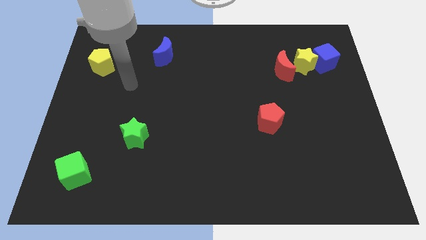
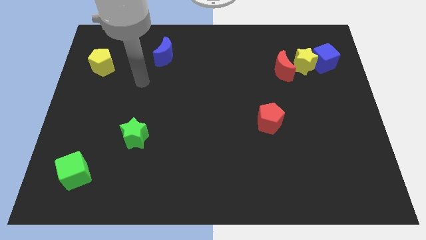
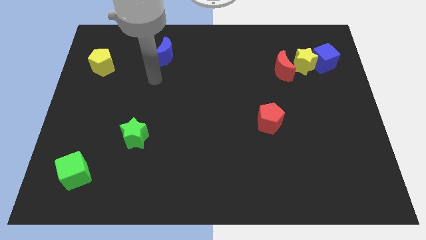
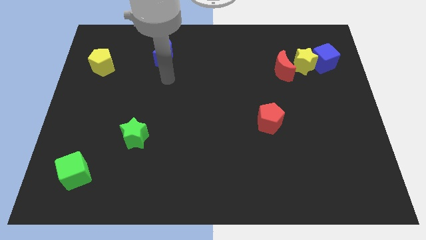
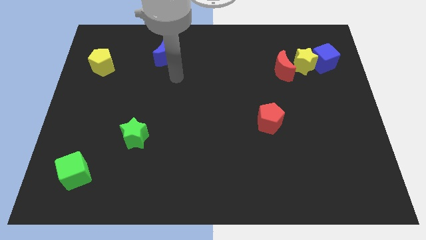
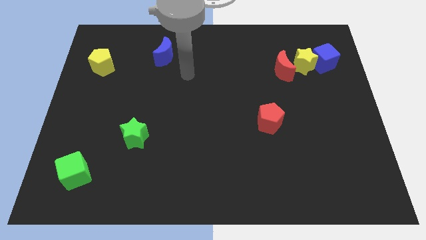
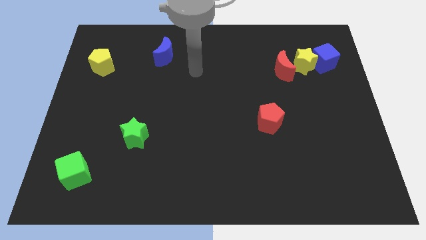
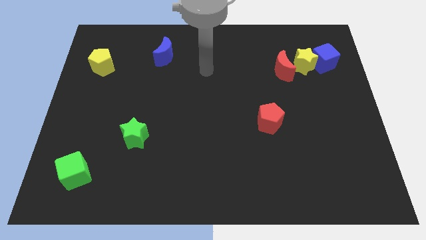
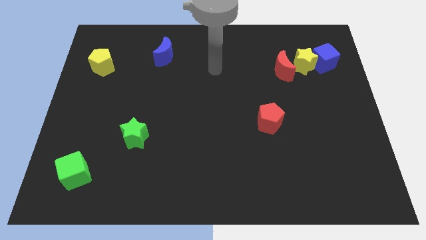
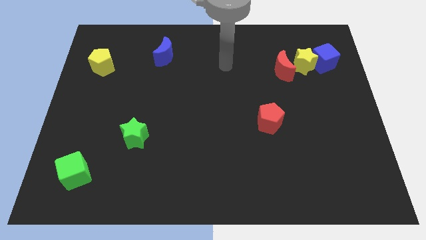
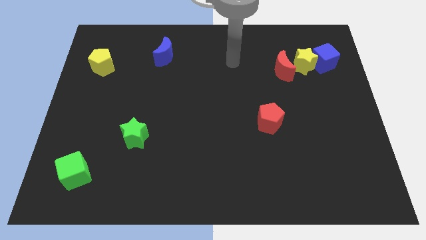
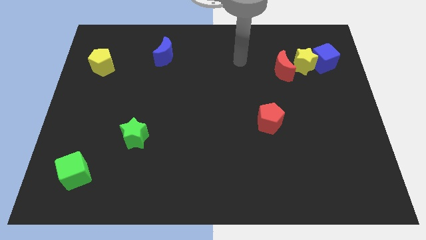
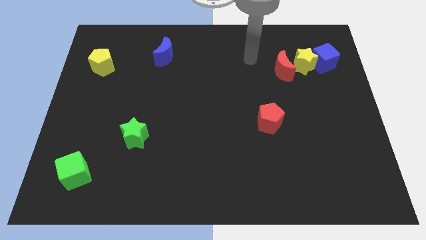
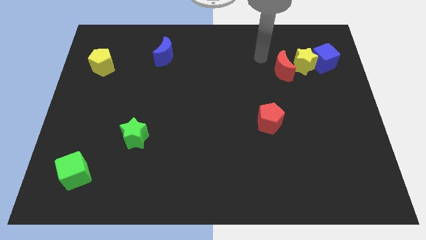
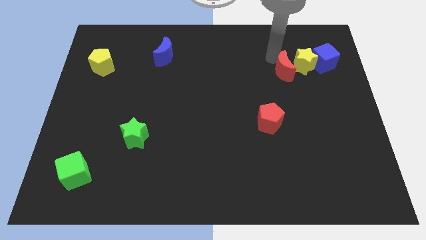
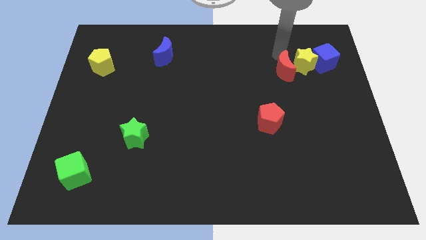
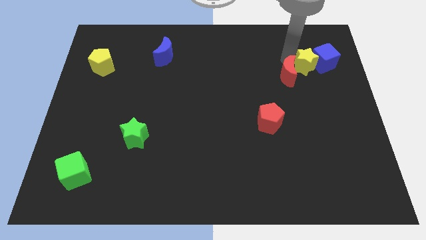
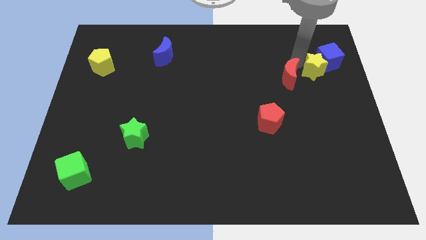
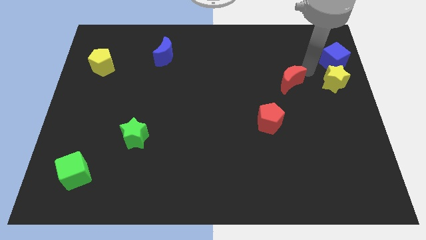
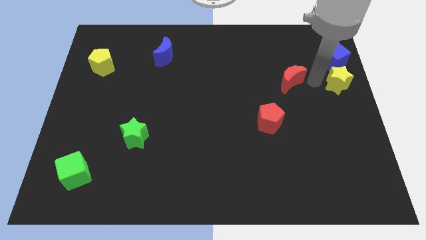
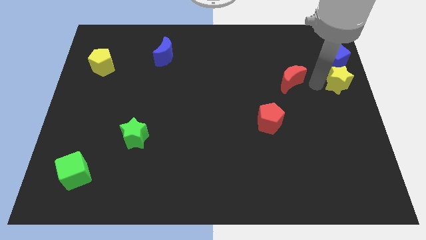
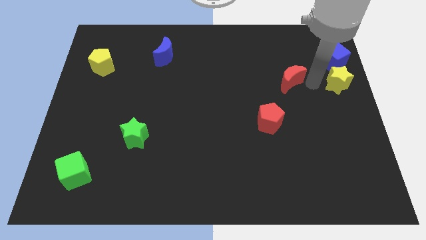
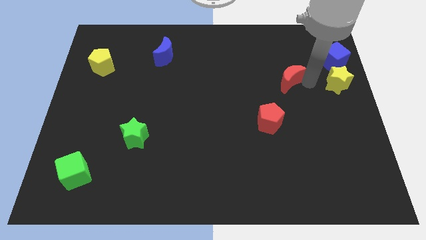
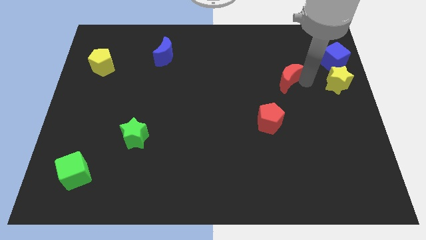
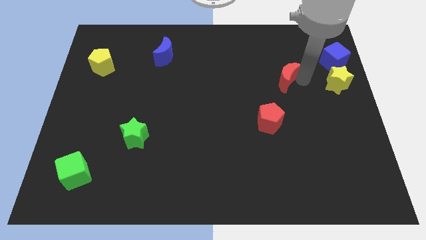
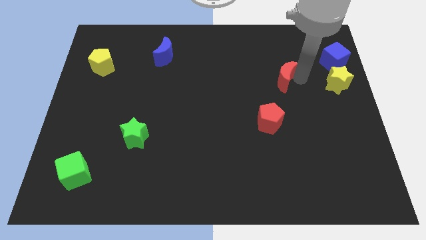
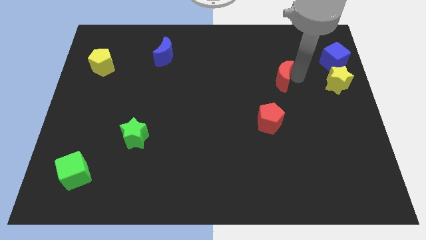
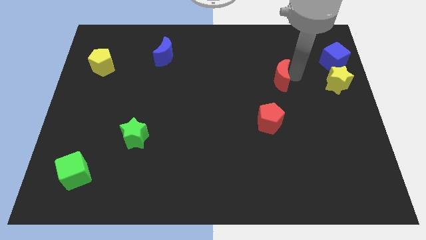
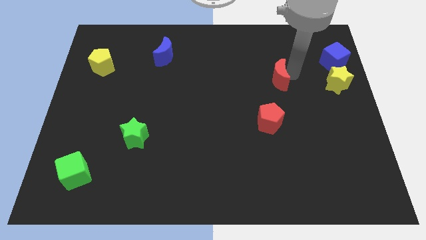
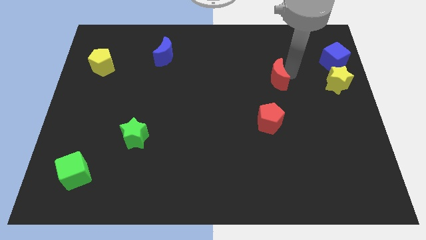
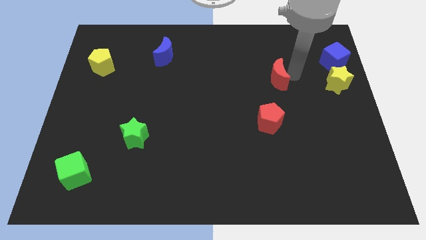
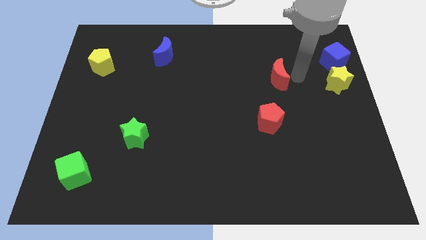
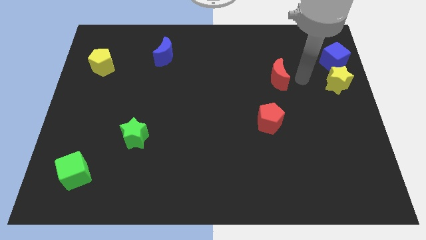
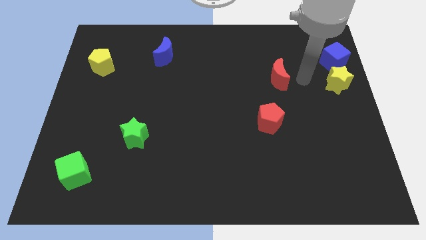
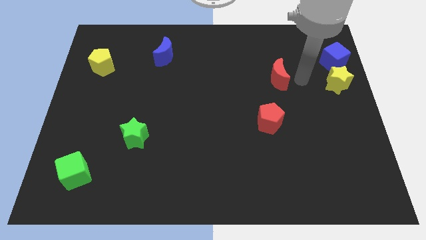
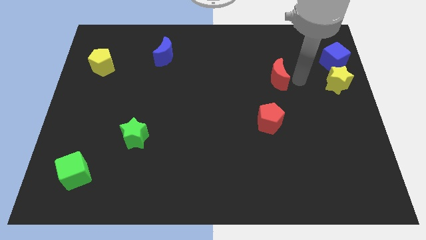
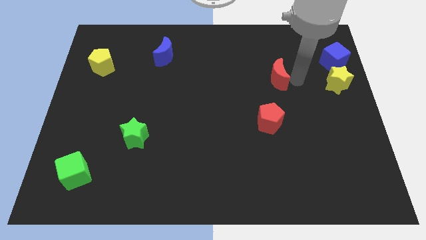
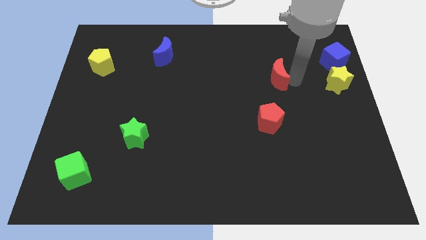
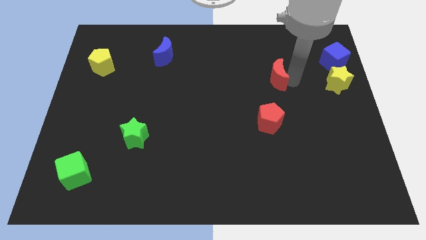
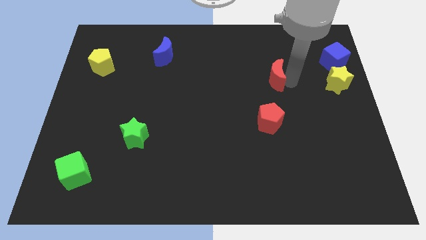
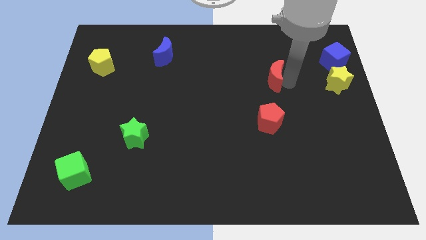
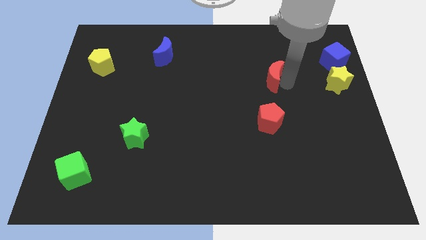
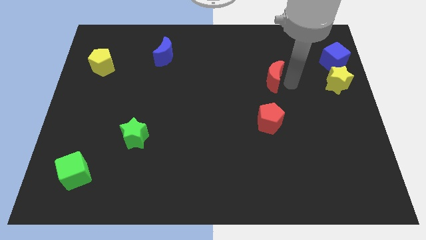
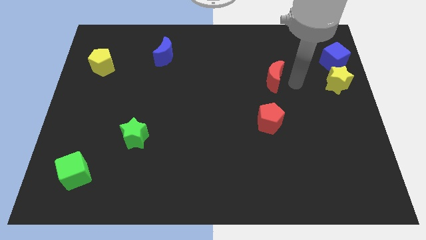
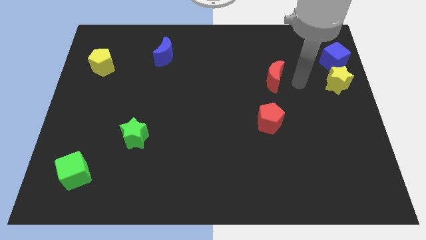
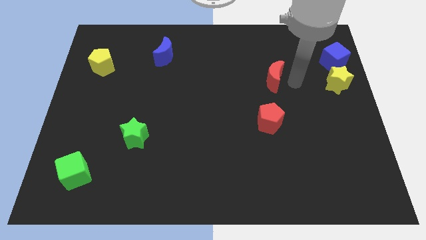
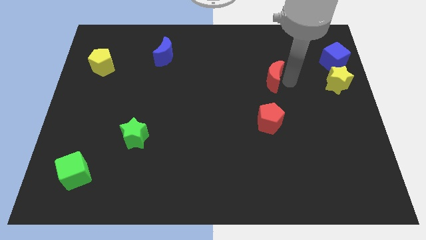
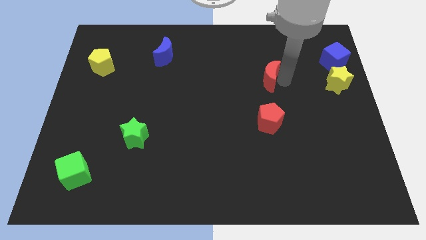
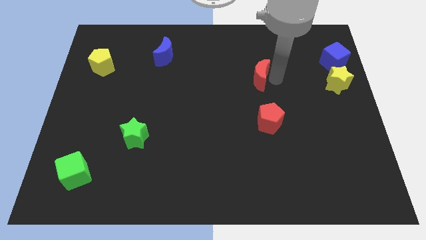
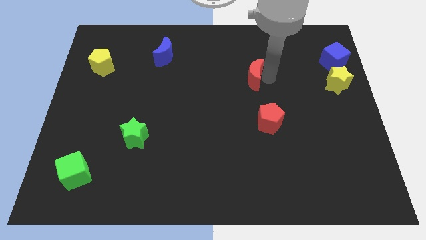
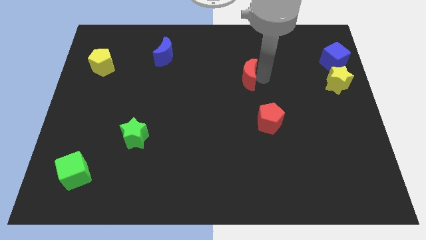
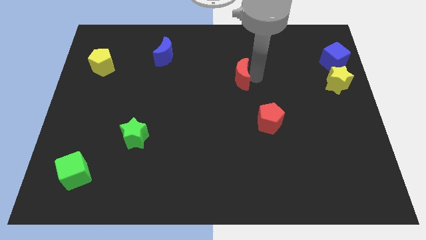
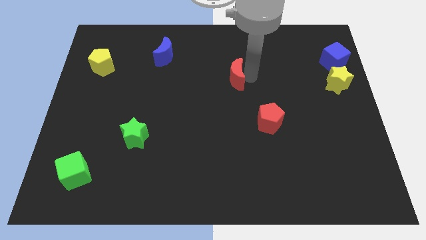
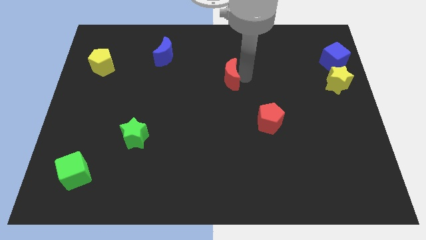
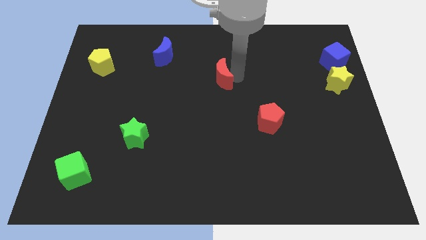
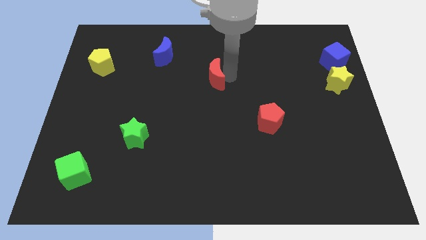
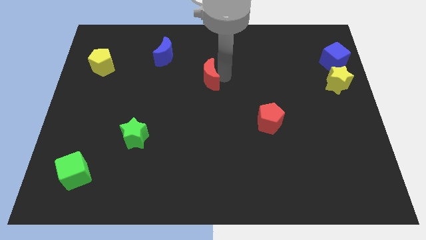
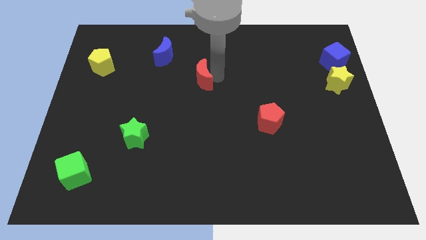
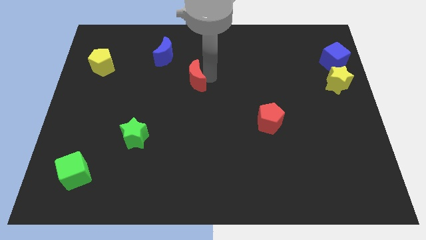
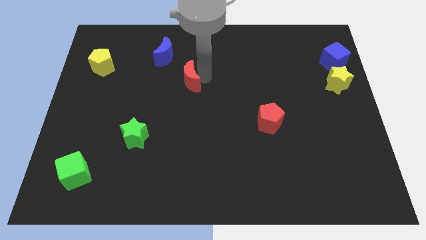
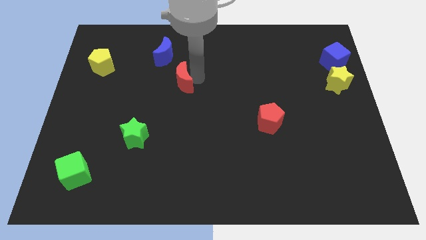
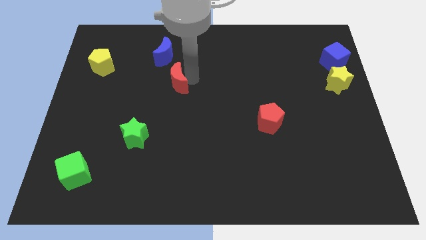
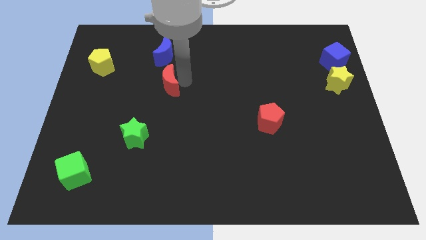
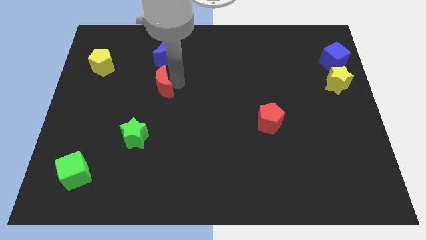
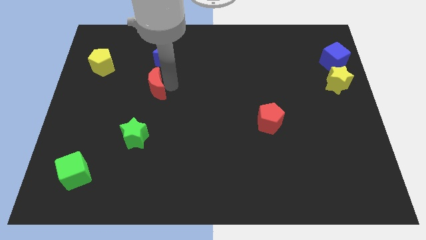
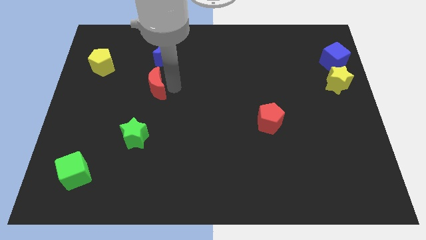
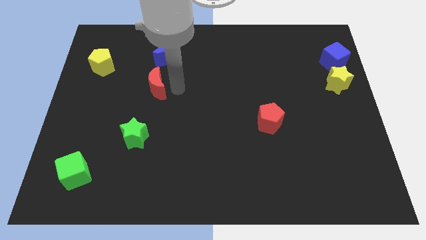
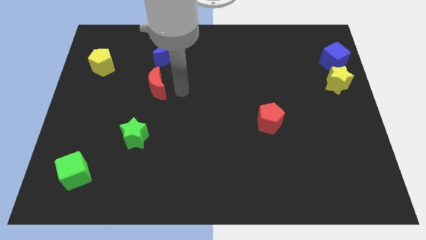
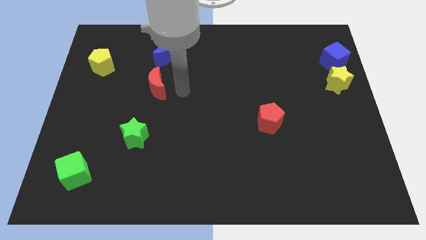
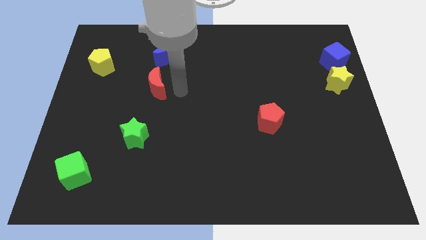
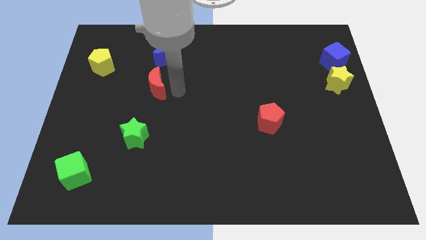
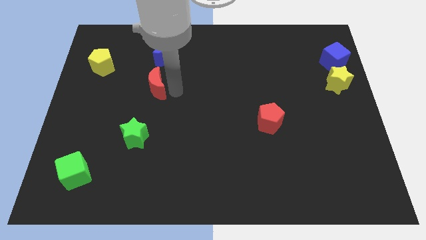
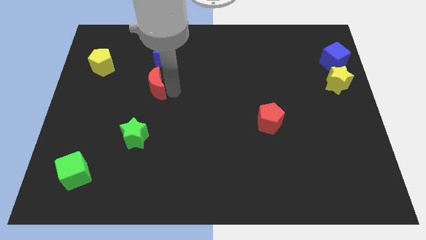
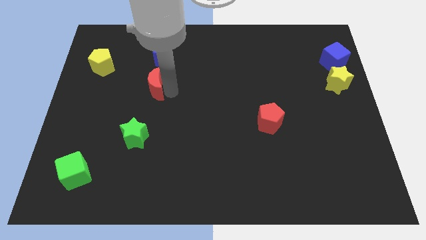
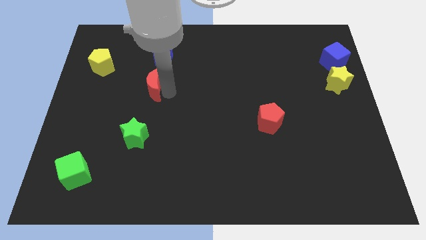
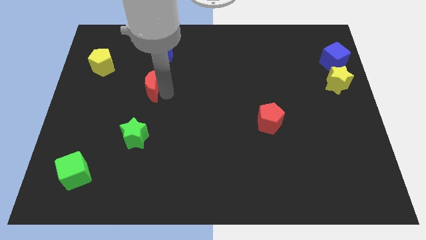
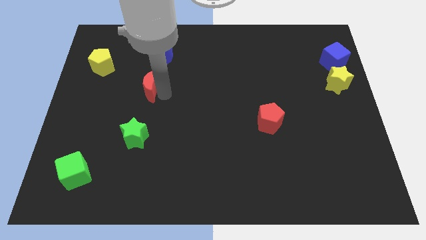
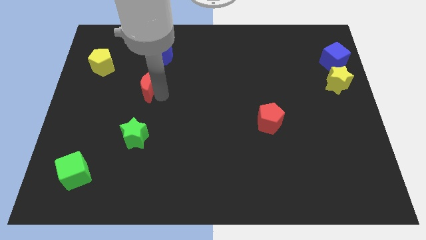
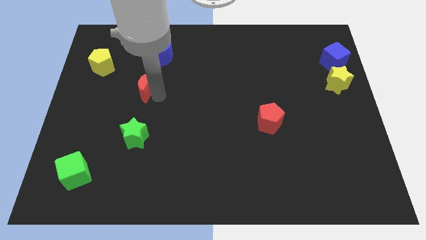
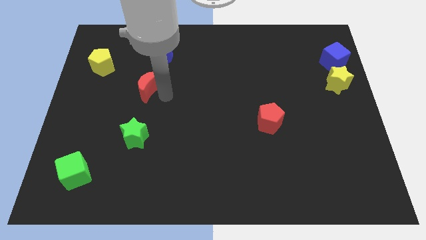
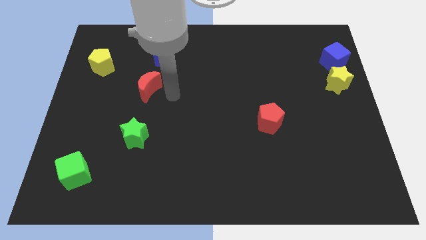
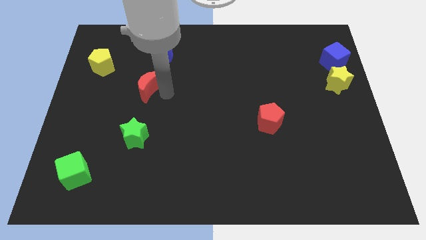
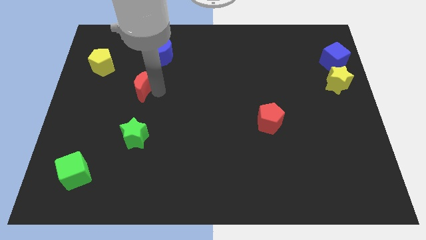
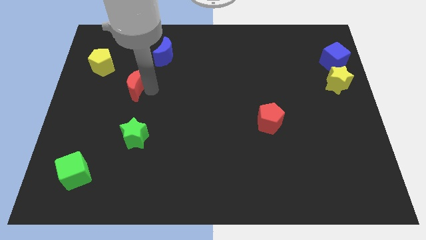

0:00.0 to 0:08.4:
push the red moon to the bottom right side of the yellow pentagon
